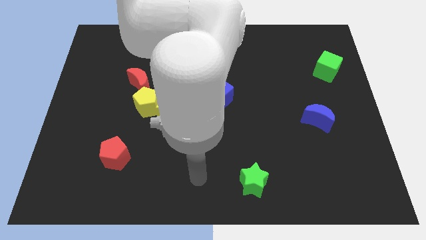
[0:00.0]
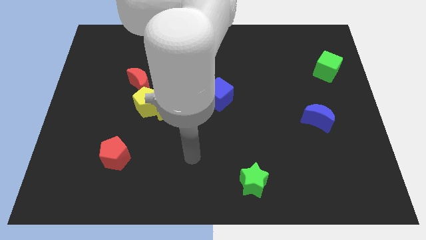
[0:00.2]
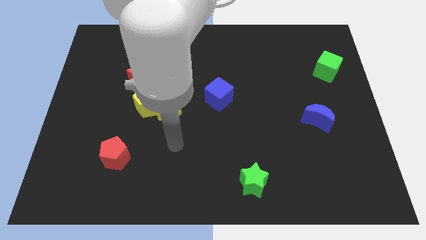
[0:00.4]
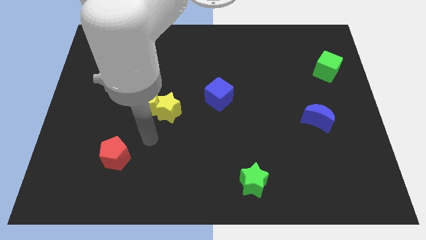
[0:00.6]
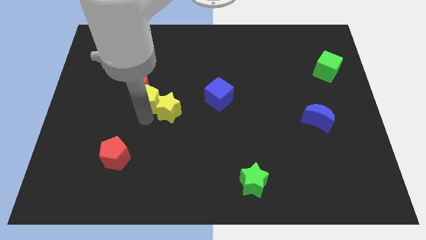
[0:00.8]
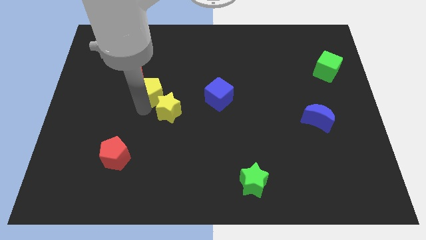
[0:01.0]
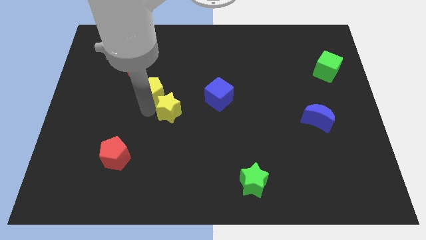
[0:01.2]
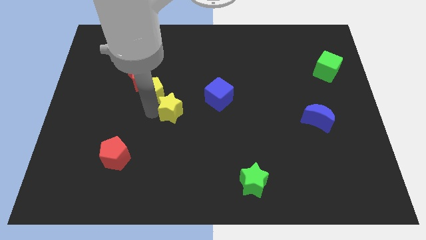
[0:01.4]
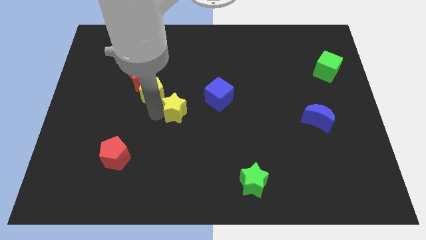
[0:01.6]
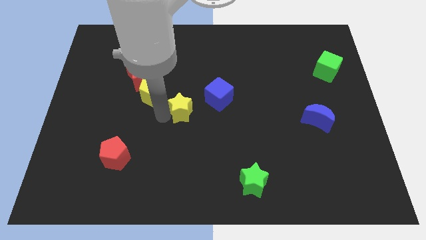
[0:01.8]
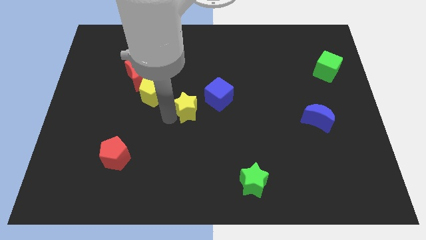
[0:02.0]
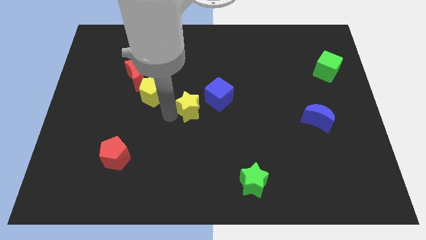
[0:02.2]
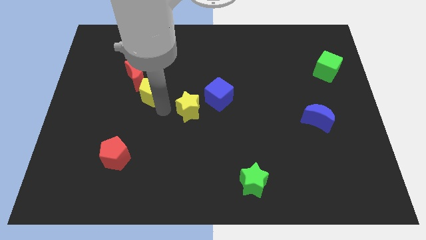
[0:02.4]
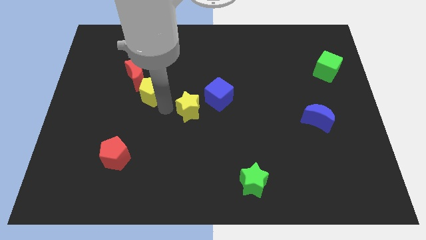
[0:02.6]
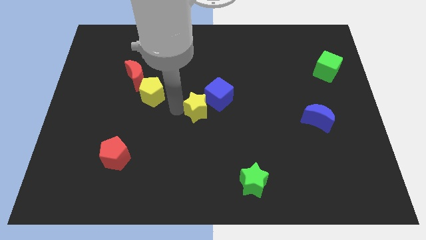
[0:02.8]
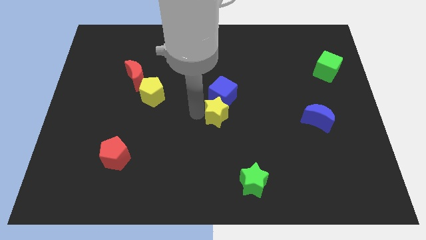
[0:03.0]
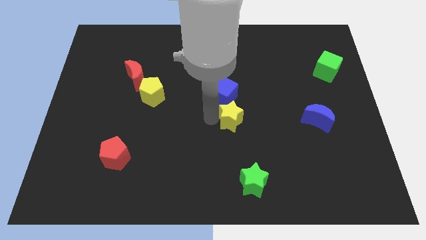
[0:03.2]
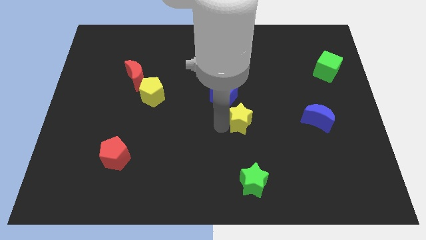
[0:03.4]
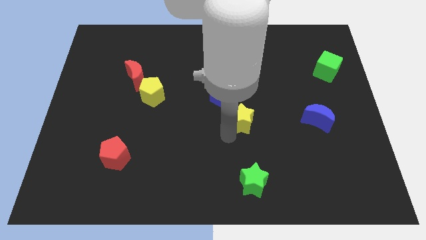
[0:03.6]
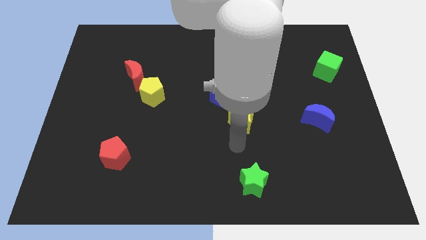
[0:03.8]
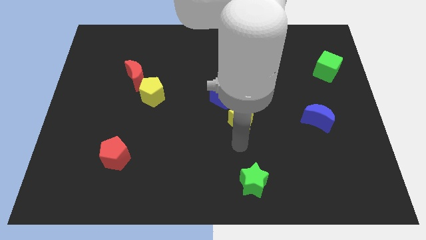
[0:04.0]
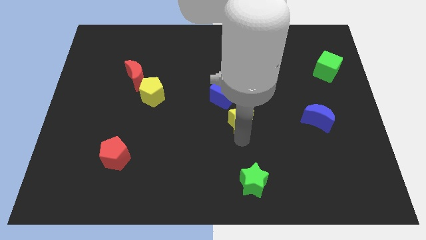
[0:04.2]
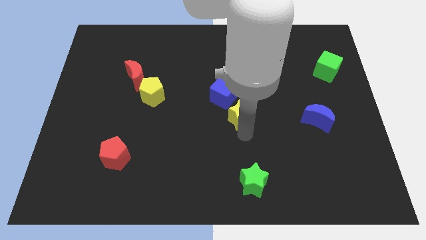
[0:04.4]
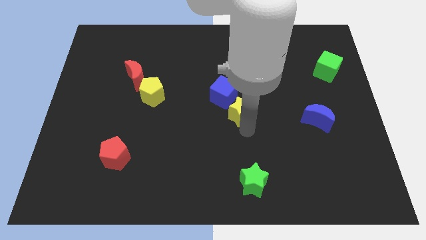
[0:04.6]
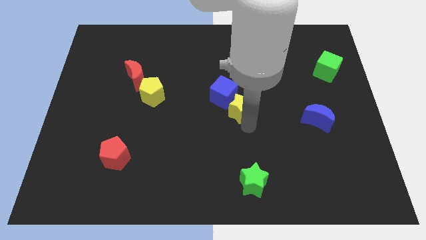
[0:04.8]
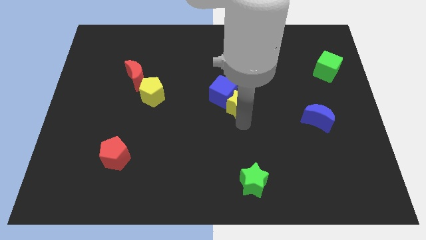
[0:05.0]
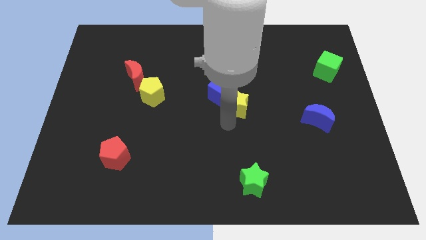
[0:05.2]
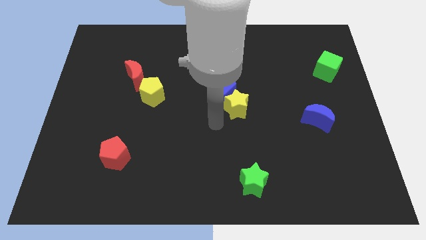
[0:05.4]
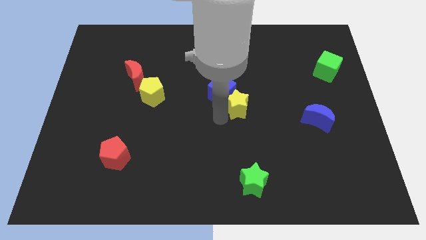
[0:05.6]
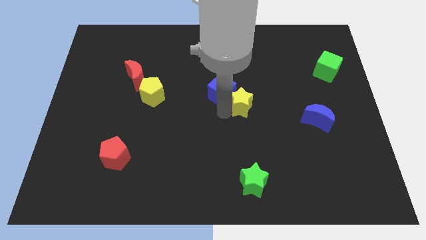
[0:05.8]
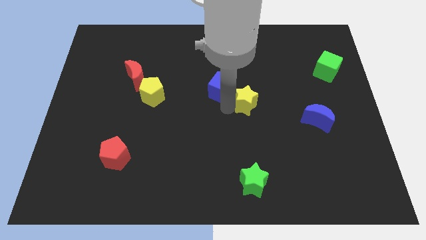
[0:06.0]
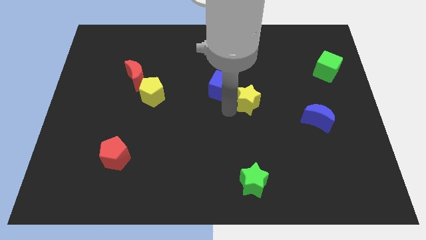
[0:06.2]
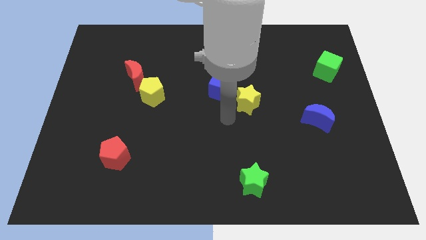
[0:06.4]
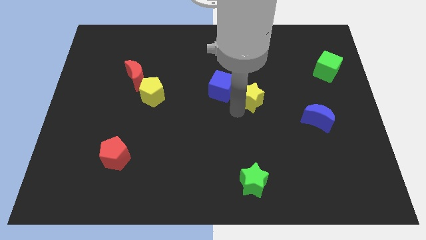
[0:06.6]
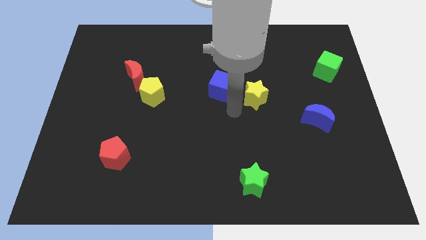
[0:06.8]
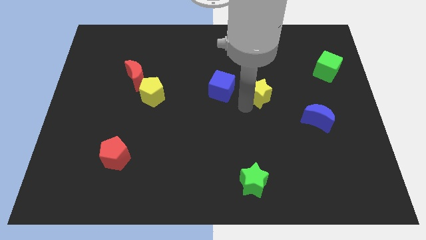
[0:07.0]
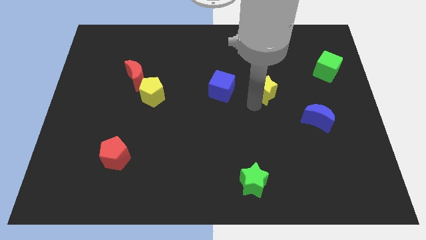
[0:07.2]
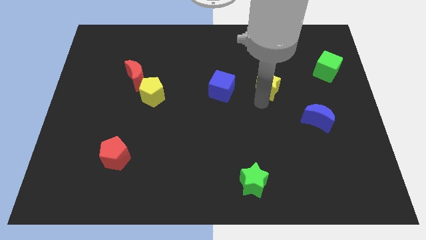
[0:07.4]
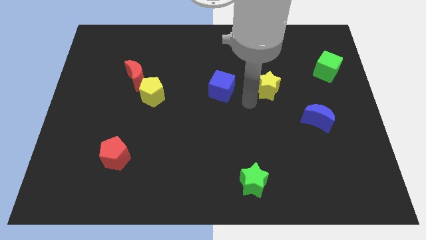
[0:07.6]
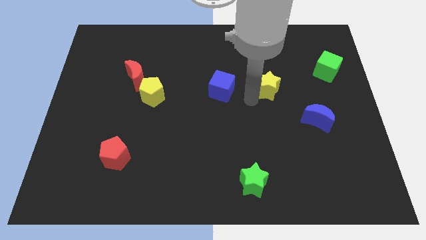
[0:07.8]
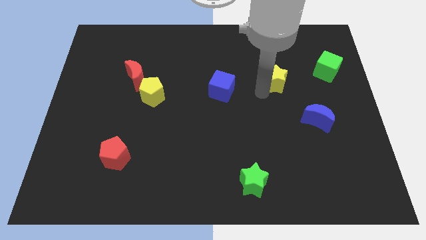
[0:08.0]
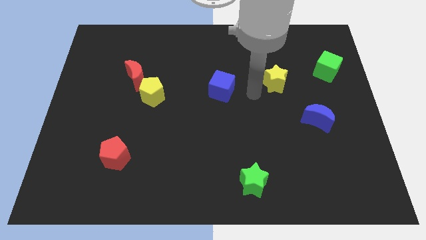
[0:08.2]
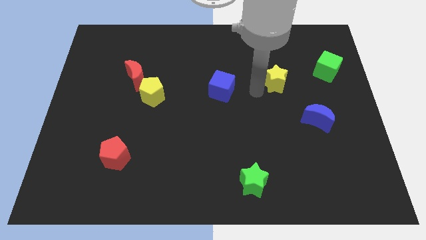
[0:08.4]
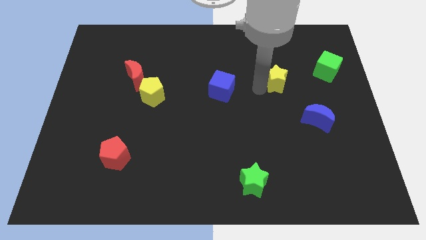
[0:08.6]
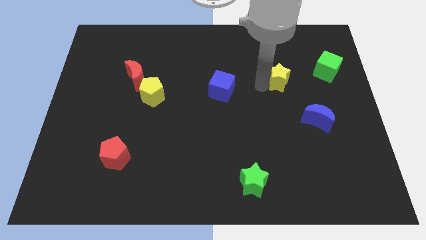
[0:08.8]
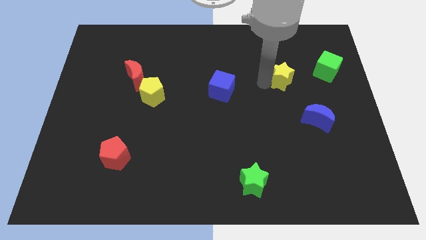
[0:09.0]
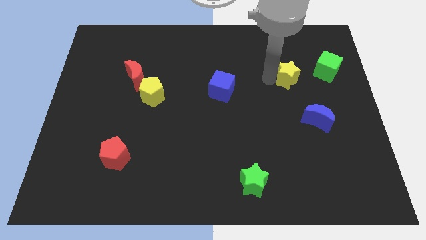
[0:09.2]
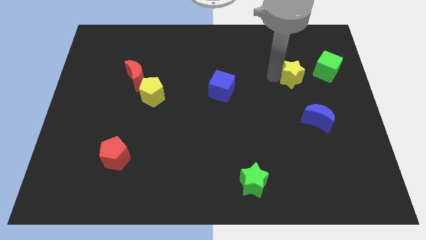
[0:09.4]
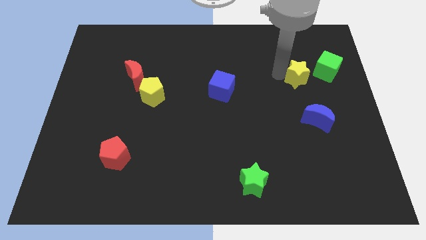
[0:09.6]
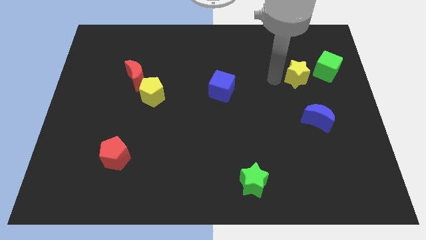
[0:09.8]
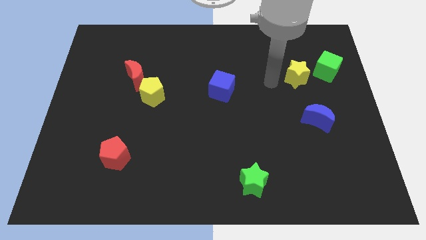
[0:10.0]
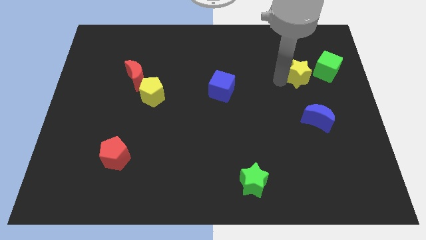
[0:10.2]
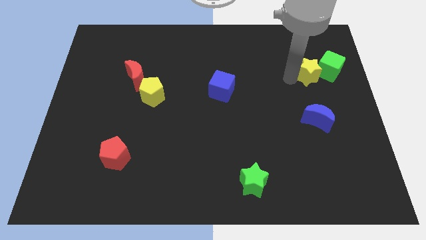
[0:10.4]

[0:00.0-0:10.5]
put the yellow star towards the green cube
